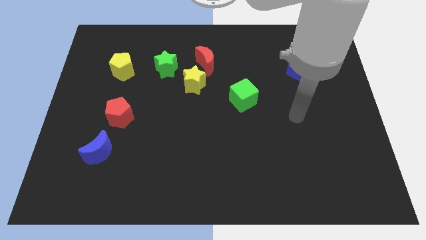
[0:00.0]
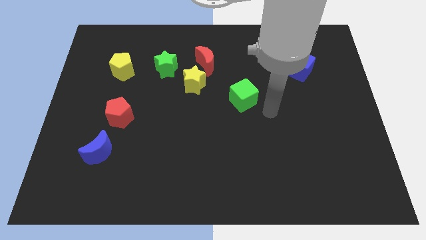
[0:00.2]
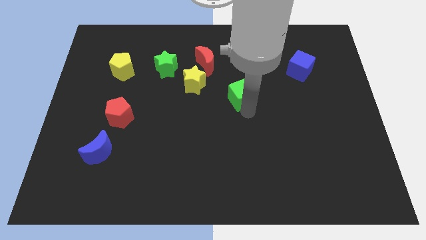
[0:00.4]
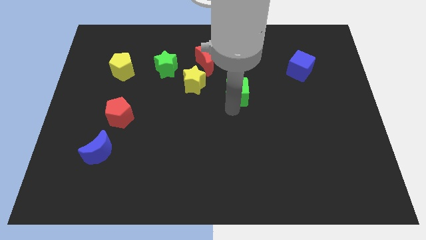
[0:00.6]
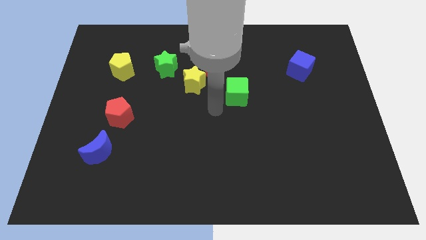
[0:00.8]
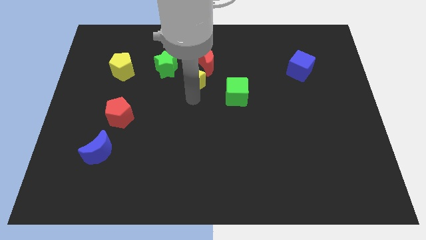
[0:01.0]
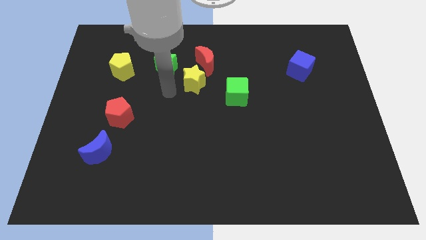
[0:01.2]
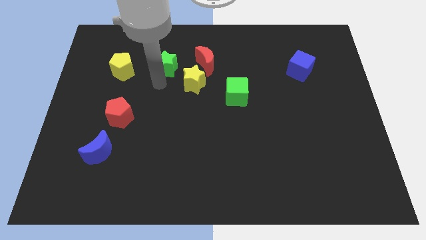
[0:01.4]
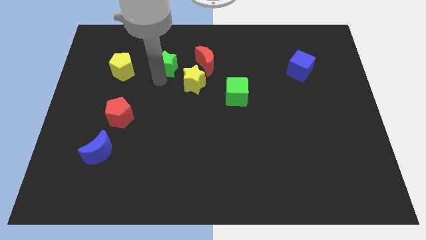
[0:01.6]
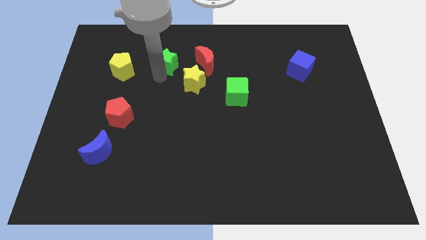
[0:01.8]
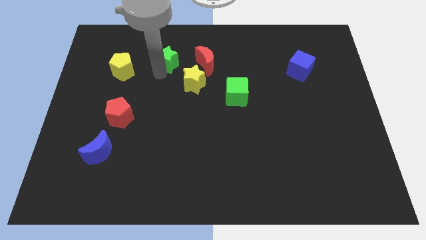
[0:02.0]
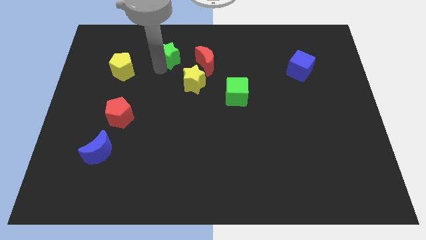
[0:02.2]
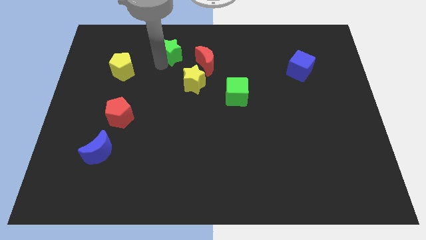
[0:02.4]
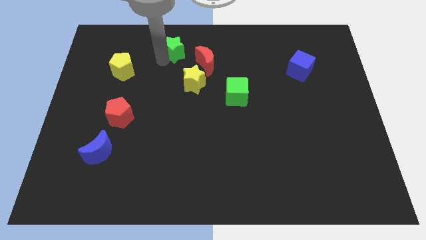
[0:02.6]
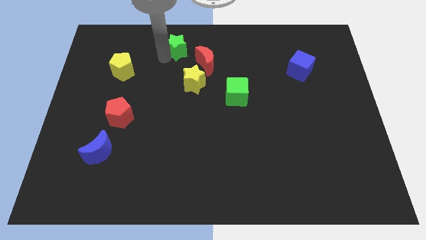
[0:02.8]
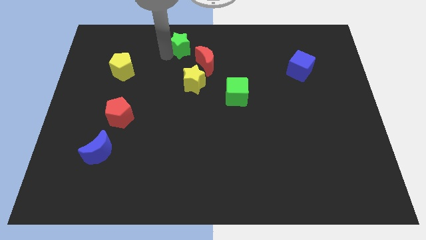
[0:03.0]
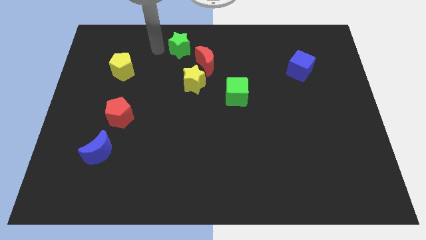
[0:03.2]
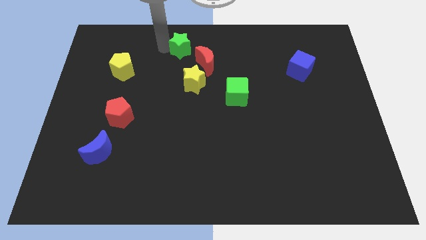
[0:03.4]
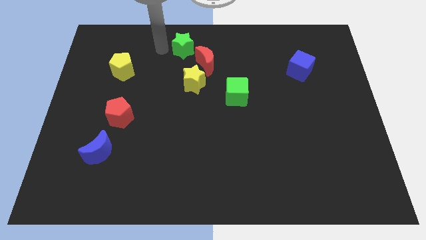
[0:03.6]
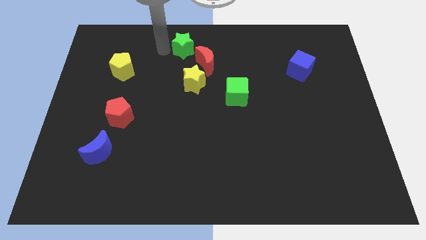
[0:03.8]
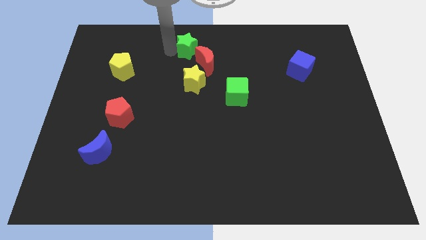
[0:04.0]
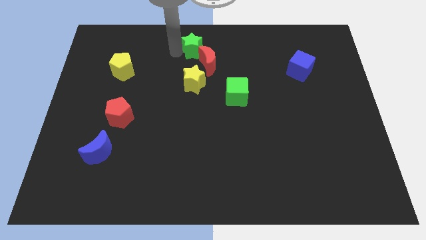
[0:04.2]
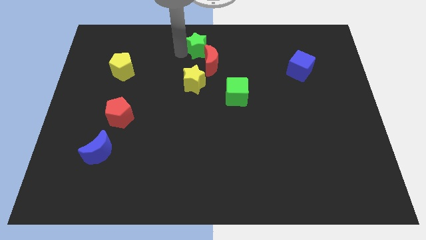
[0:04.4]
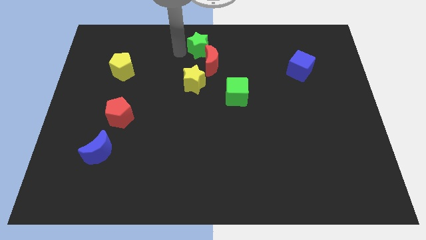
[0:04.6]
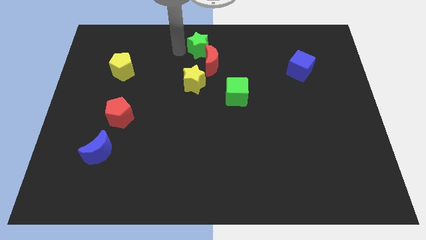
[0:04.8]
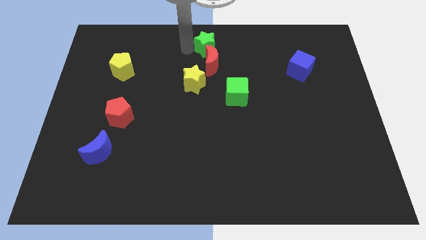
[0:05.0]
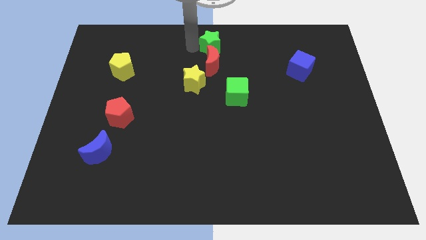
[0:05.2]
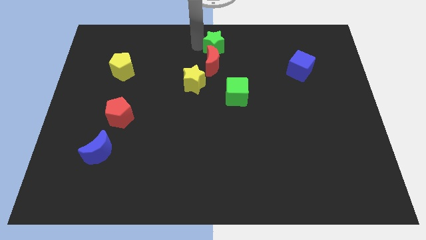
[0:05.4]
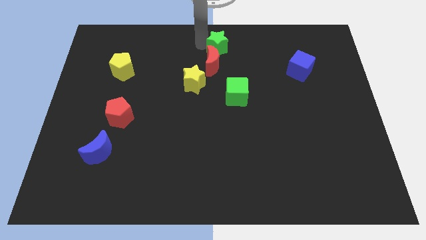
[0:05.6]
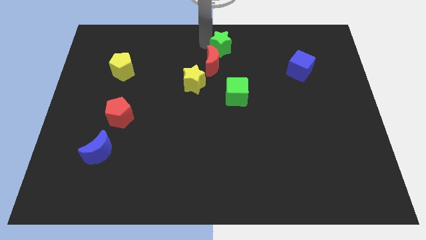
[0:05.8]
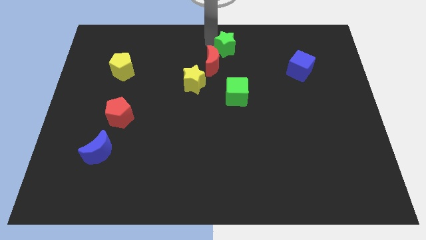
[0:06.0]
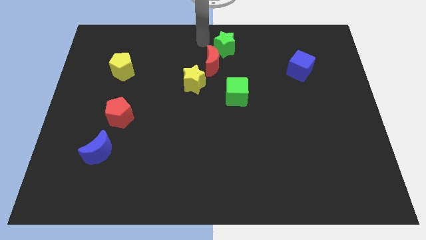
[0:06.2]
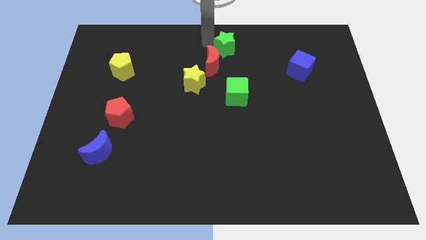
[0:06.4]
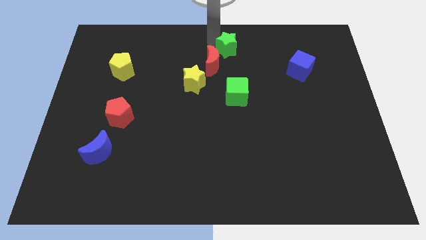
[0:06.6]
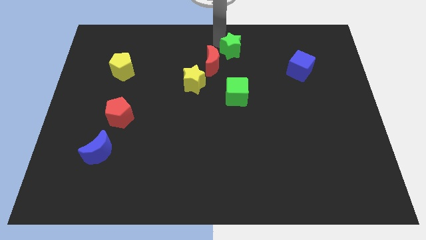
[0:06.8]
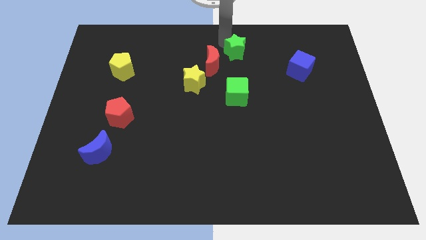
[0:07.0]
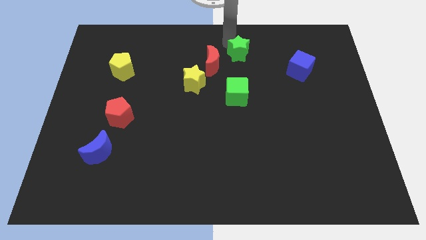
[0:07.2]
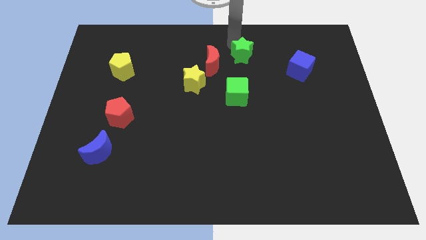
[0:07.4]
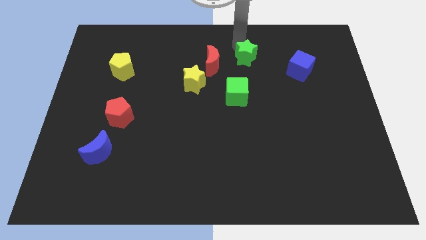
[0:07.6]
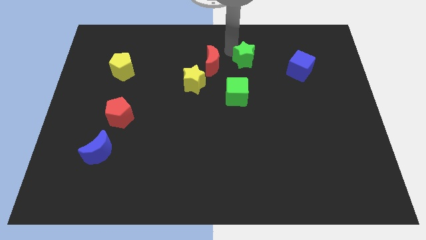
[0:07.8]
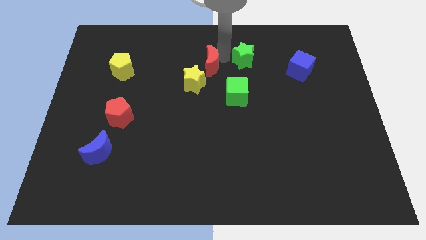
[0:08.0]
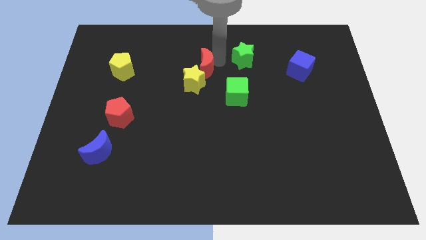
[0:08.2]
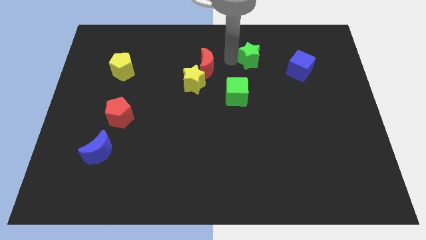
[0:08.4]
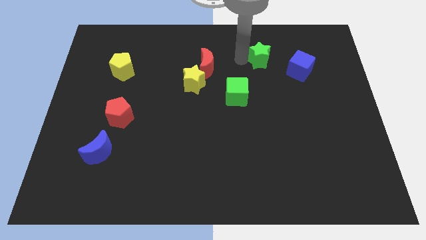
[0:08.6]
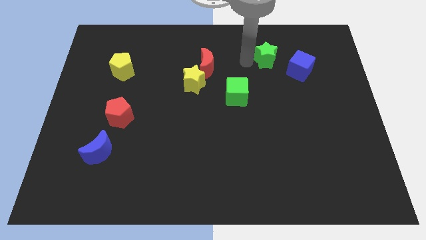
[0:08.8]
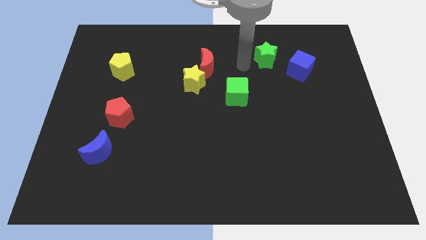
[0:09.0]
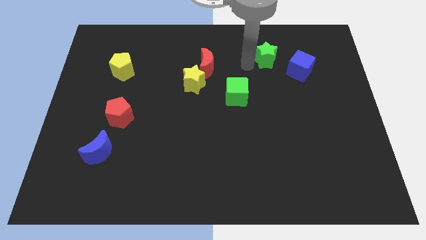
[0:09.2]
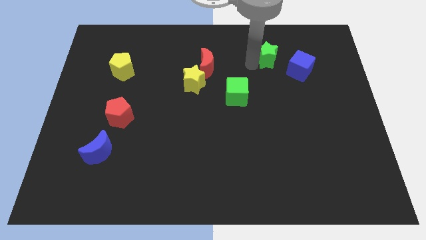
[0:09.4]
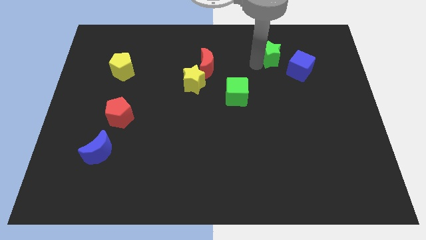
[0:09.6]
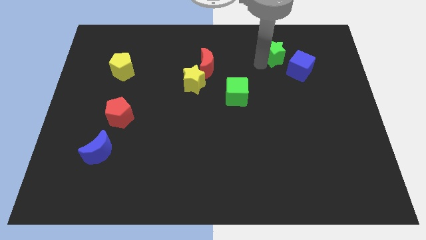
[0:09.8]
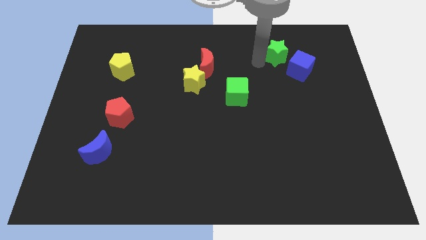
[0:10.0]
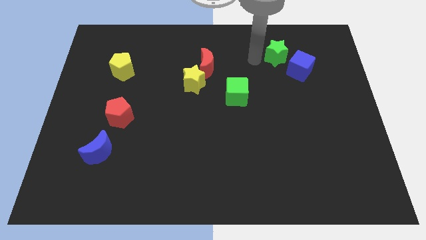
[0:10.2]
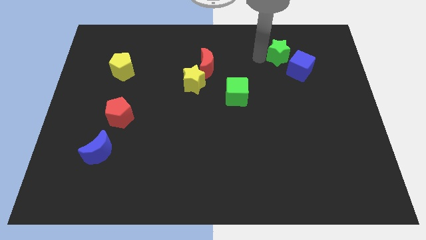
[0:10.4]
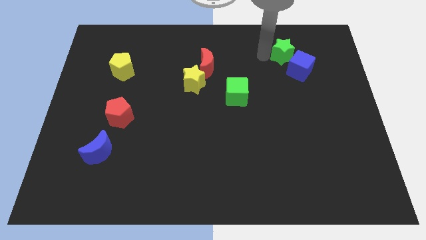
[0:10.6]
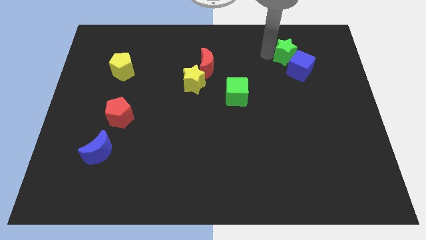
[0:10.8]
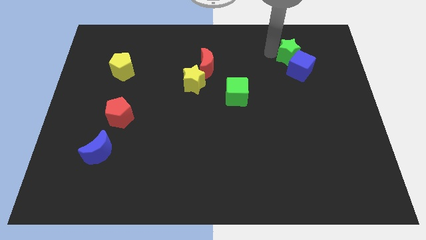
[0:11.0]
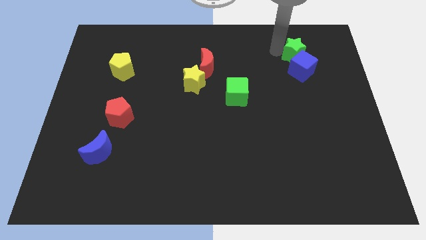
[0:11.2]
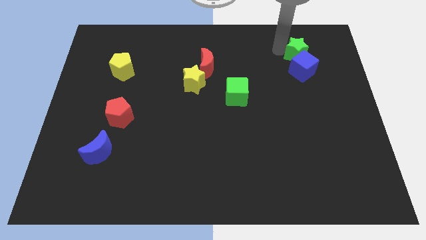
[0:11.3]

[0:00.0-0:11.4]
push the green star to the top right side of the blue cube

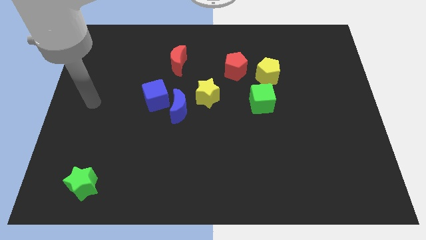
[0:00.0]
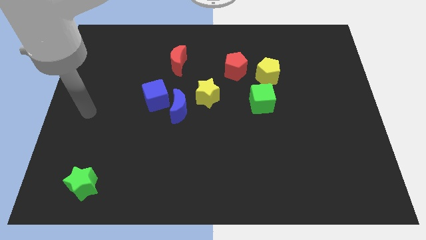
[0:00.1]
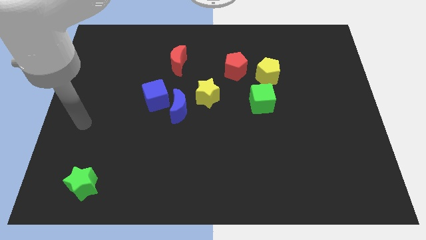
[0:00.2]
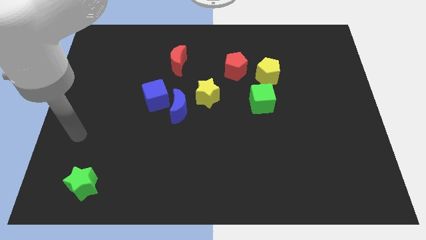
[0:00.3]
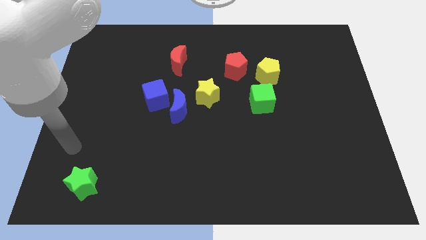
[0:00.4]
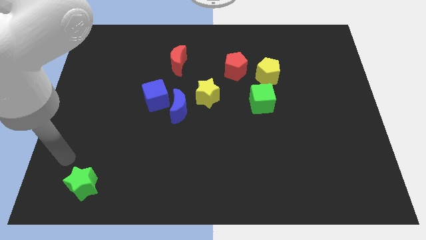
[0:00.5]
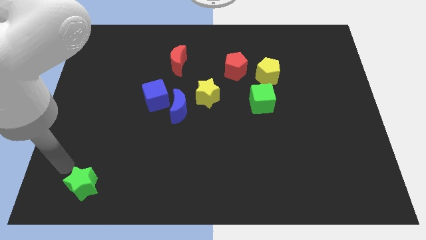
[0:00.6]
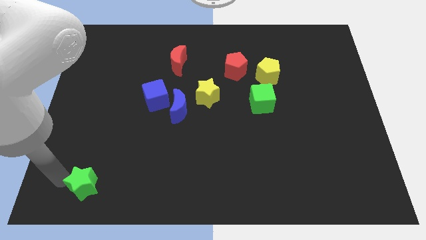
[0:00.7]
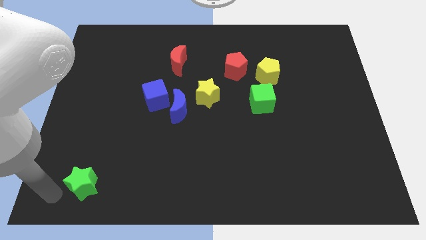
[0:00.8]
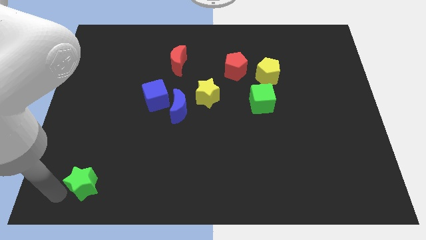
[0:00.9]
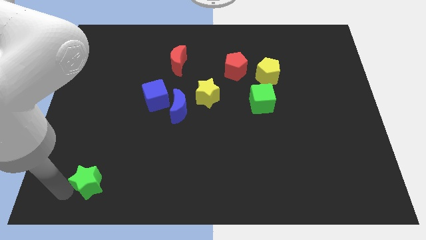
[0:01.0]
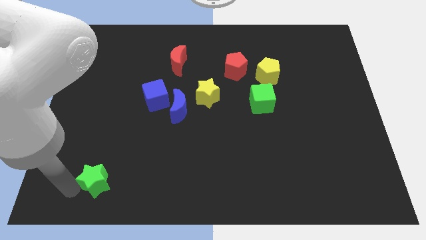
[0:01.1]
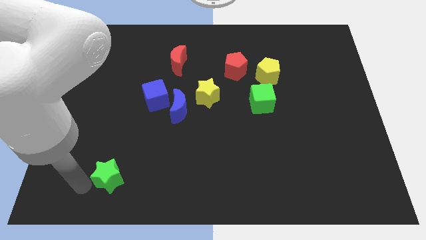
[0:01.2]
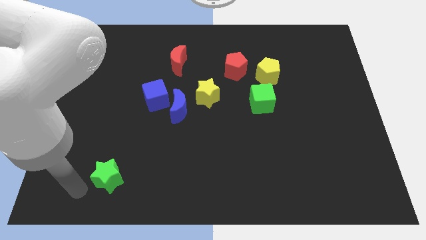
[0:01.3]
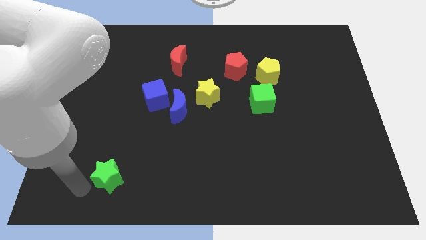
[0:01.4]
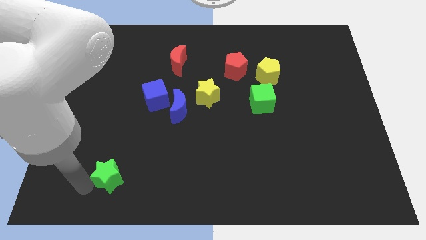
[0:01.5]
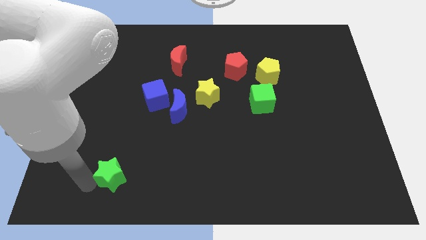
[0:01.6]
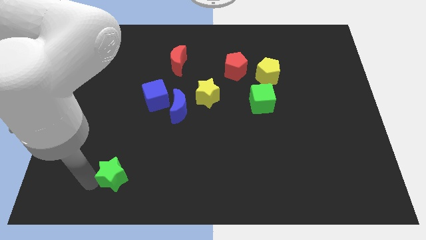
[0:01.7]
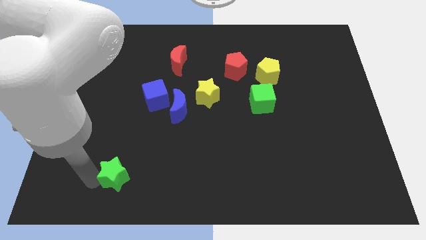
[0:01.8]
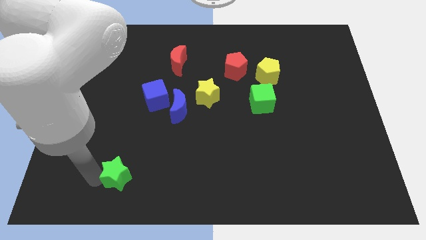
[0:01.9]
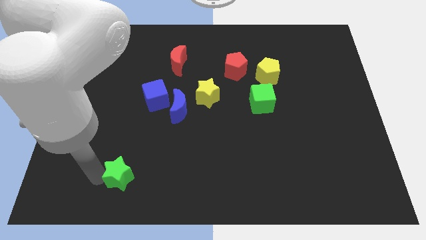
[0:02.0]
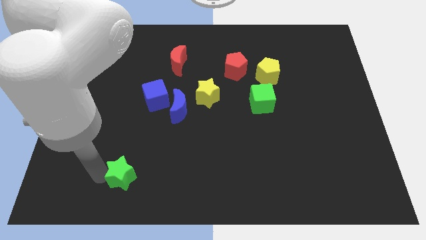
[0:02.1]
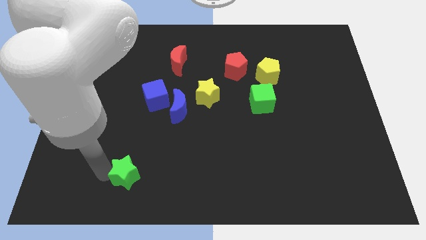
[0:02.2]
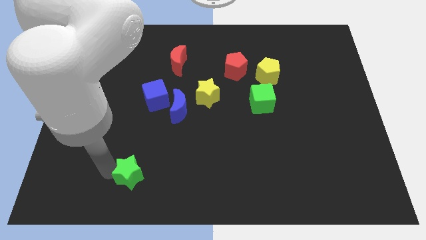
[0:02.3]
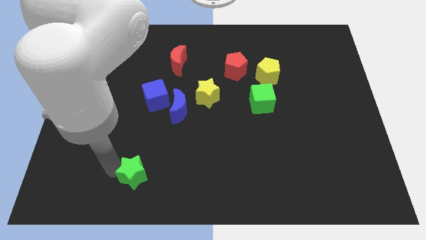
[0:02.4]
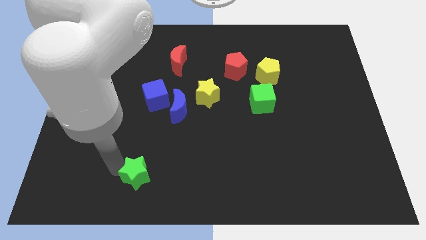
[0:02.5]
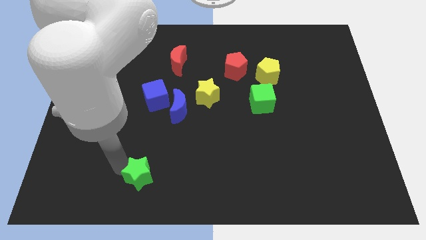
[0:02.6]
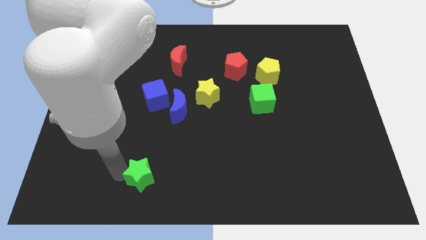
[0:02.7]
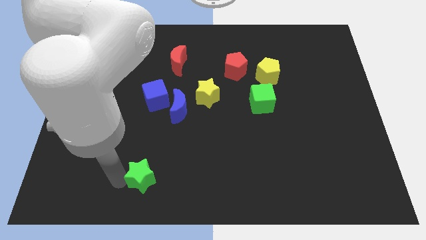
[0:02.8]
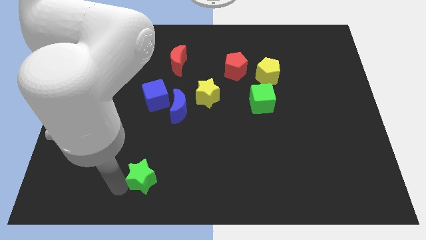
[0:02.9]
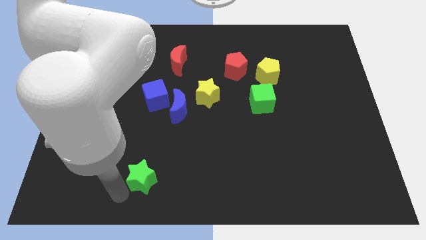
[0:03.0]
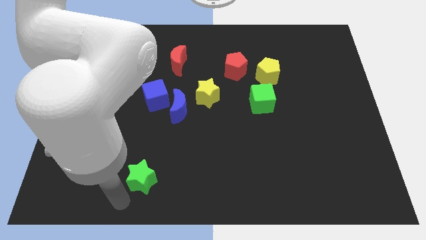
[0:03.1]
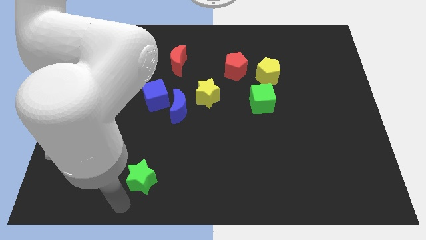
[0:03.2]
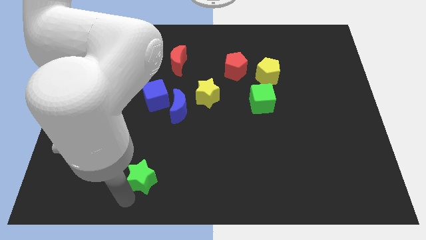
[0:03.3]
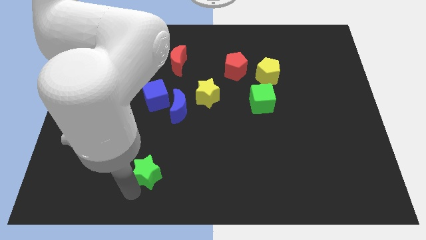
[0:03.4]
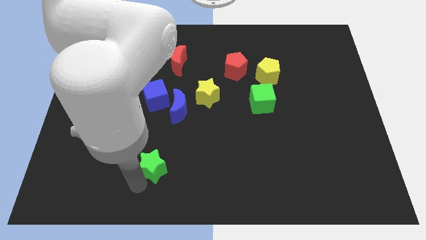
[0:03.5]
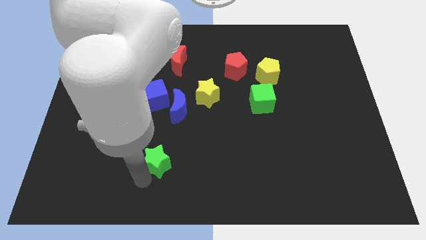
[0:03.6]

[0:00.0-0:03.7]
slide the green star below the blue moon
